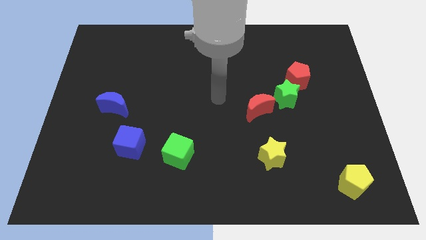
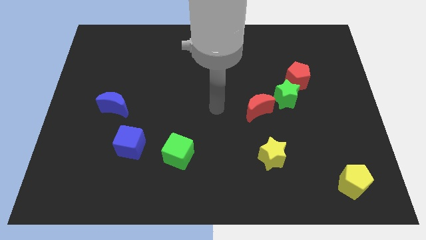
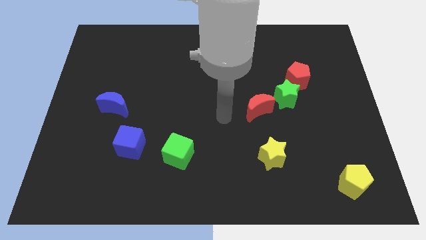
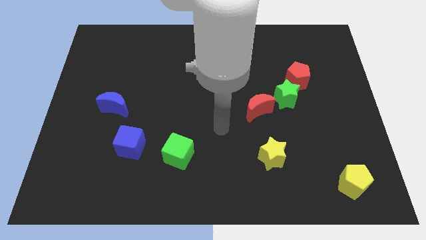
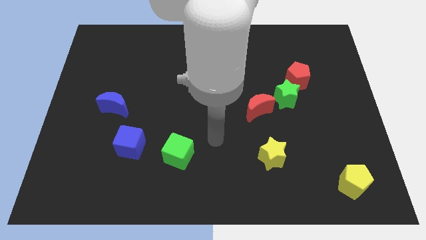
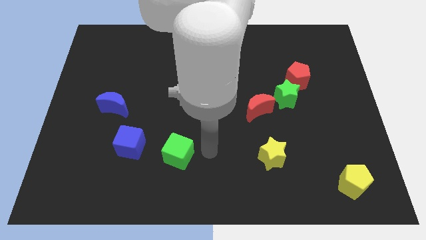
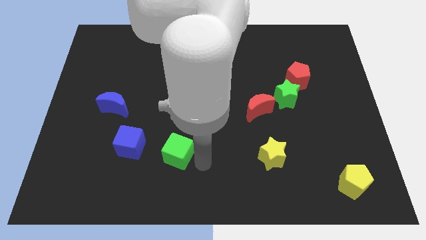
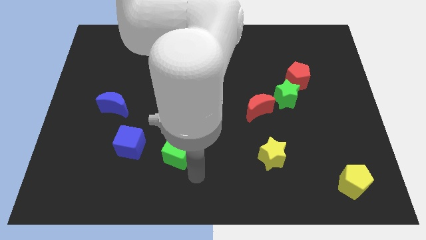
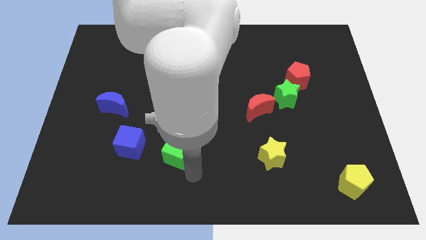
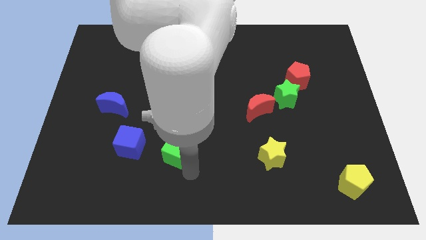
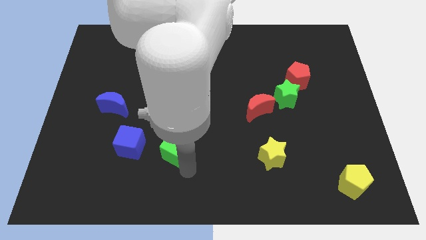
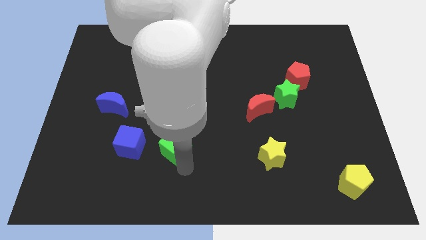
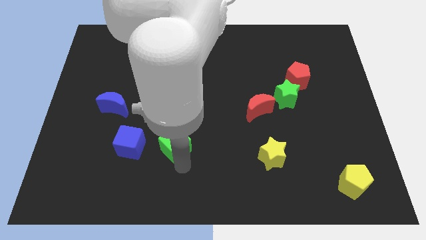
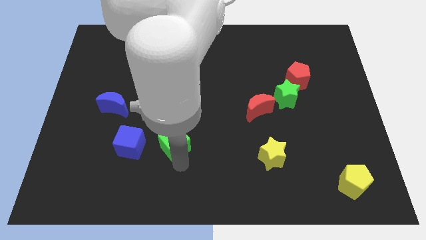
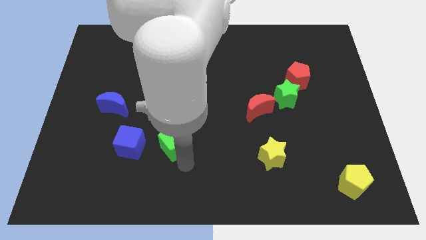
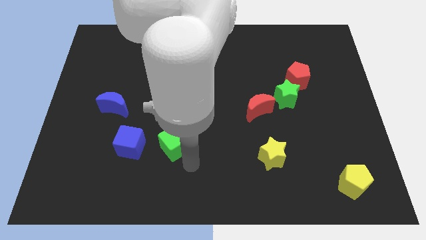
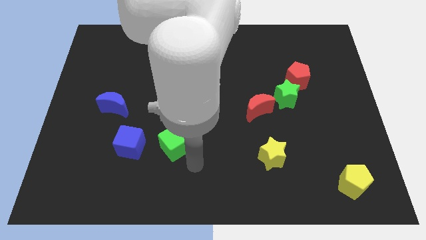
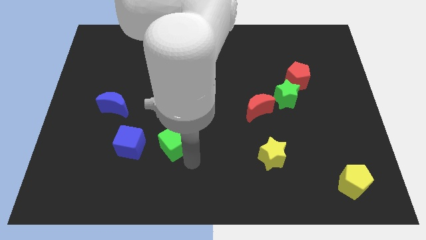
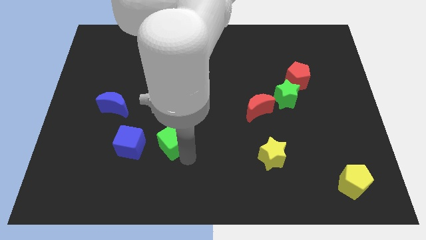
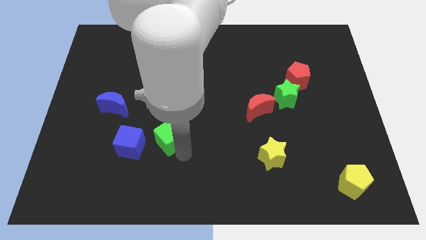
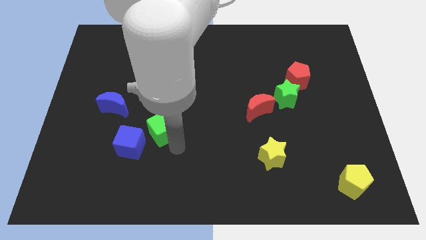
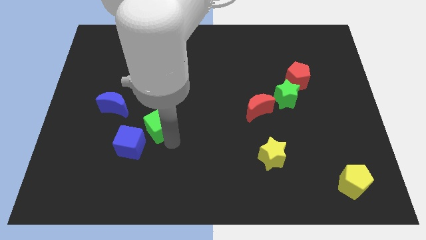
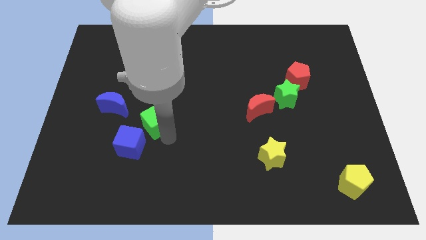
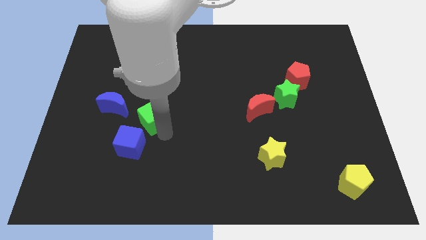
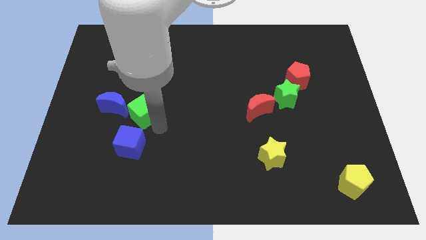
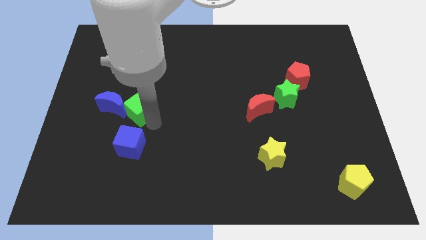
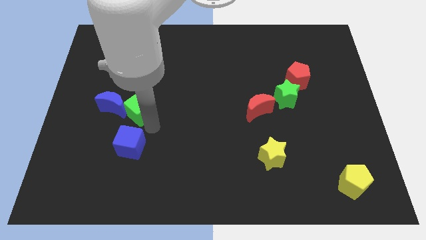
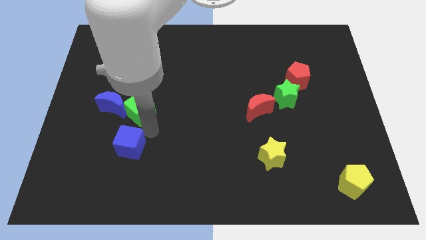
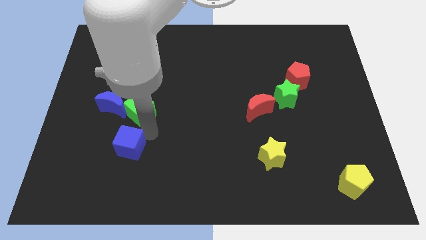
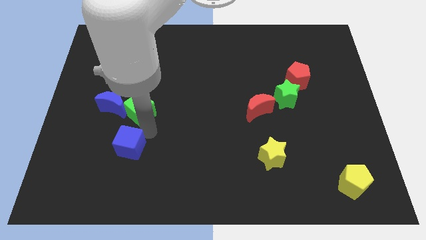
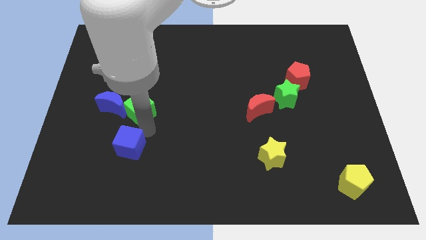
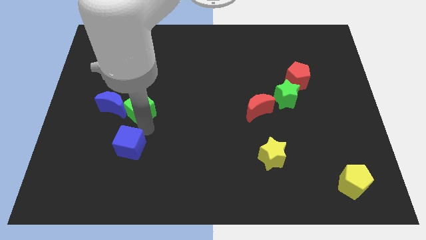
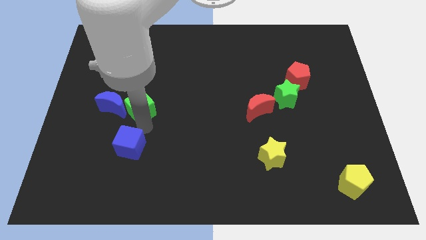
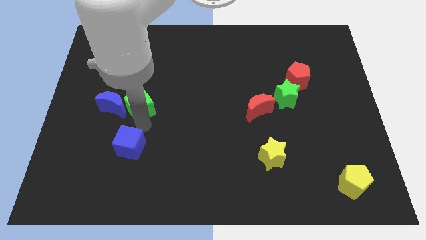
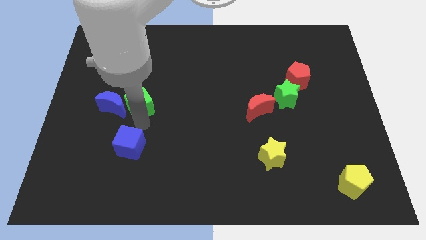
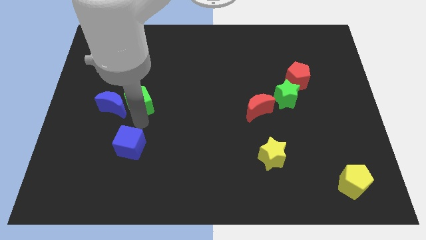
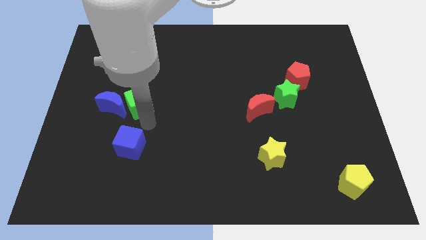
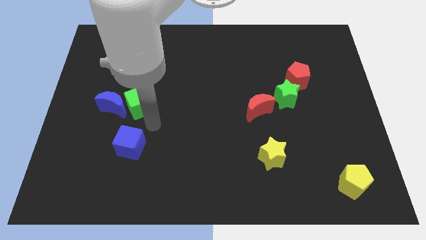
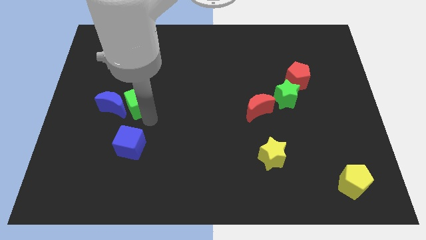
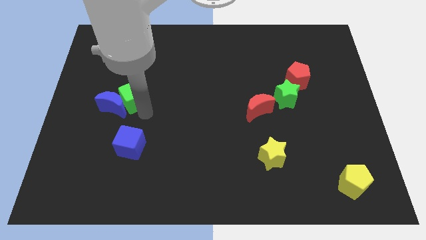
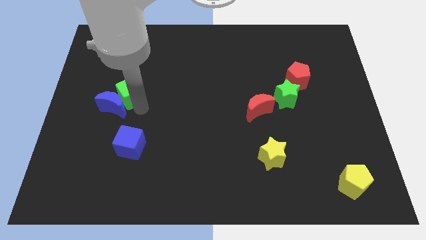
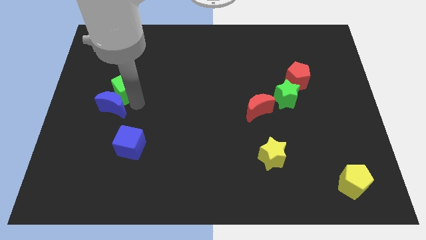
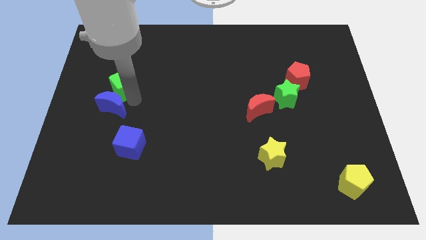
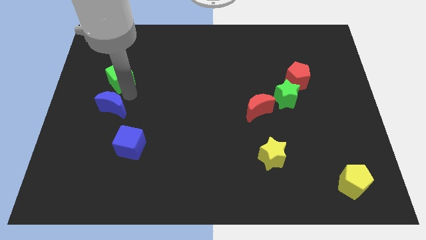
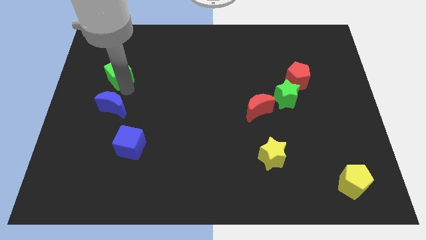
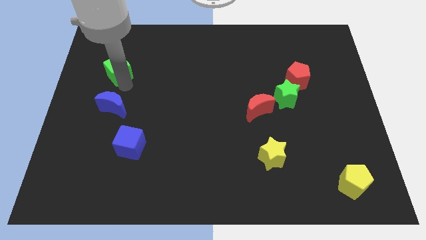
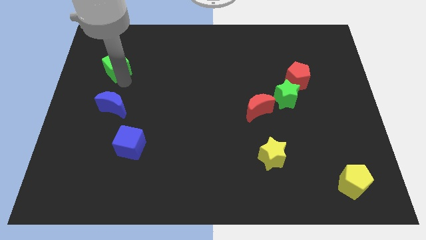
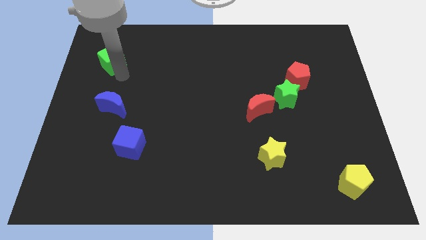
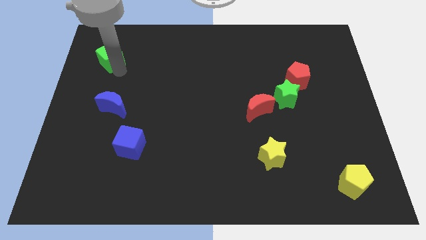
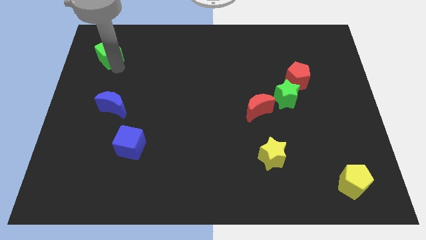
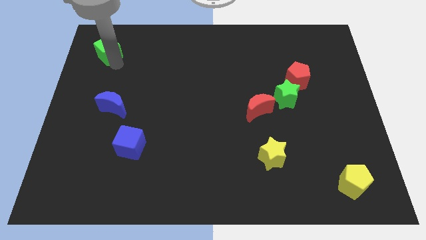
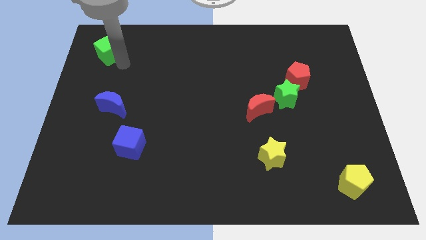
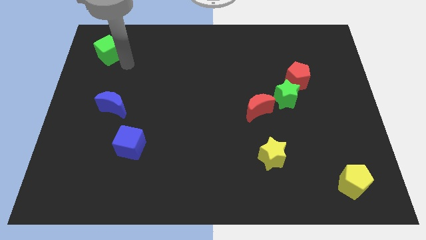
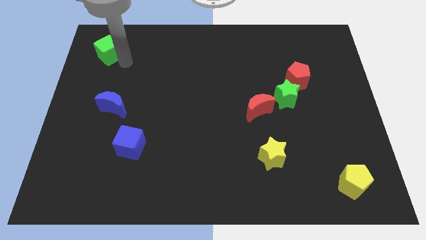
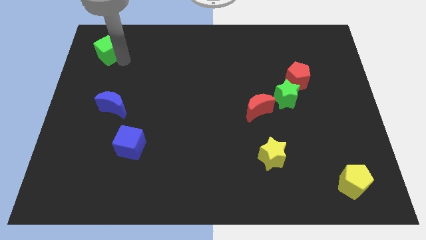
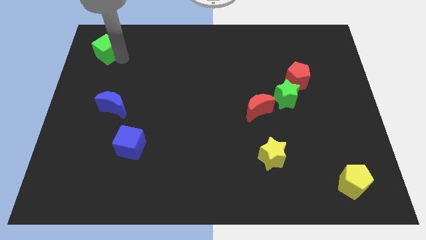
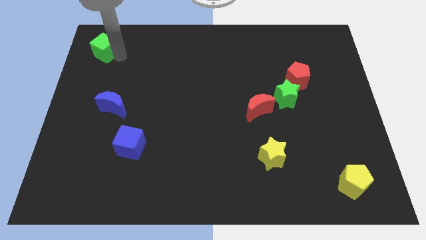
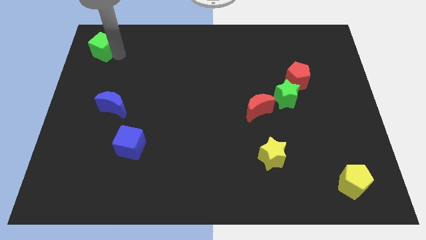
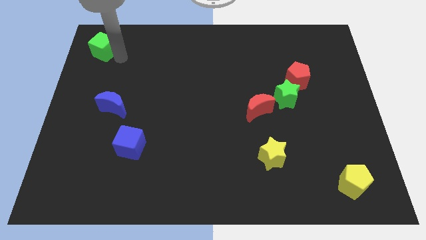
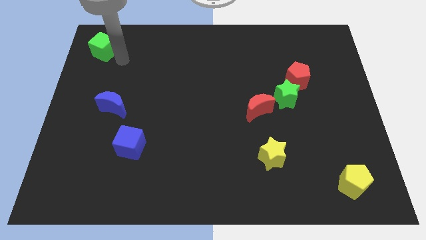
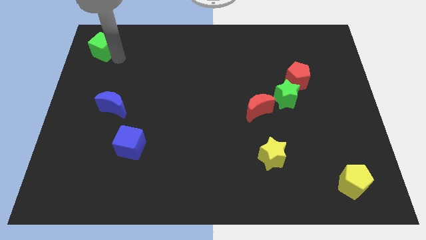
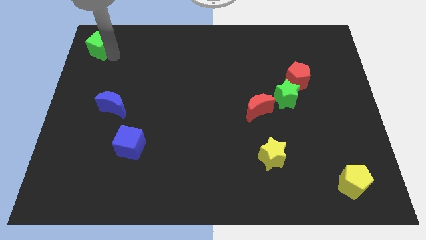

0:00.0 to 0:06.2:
put the green cube to the top left corner
